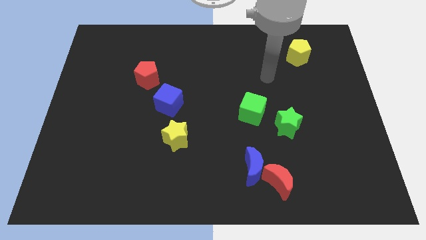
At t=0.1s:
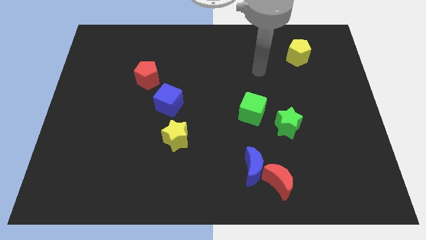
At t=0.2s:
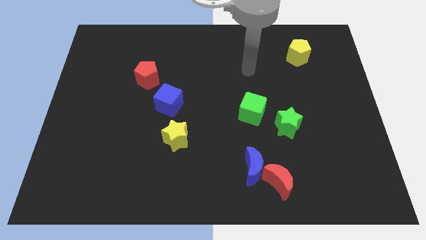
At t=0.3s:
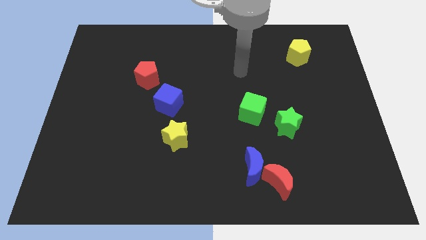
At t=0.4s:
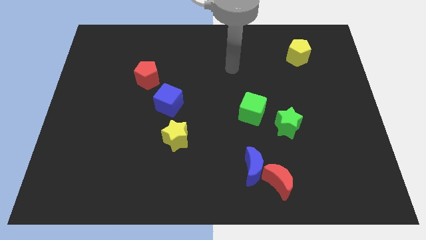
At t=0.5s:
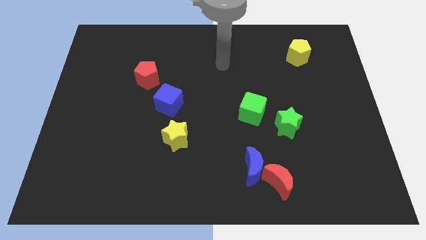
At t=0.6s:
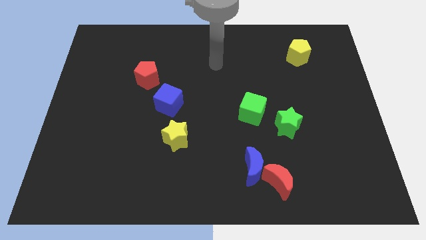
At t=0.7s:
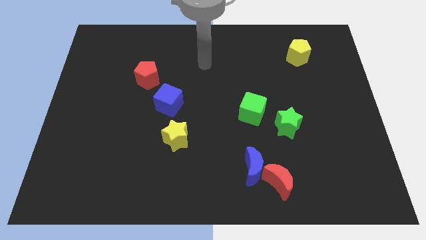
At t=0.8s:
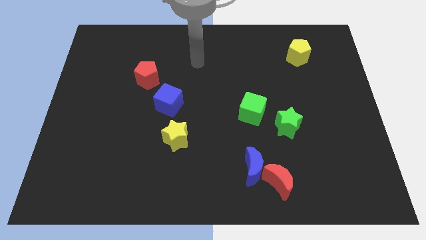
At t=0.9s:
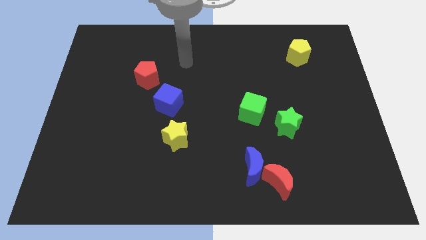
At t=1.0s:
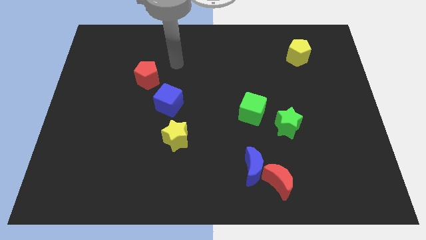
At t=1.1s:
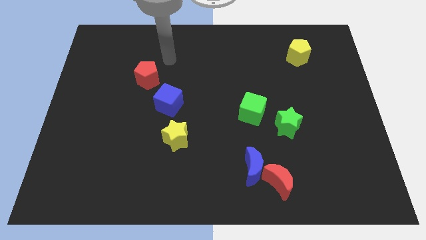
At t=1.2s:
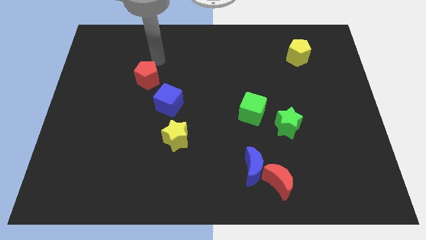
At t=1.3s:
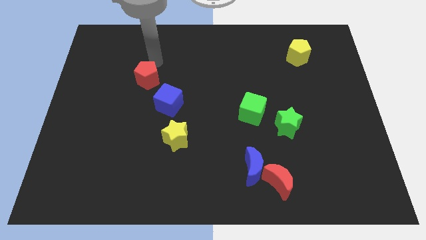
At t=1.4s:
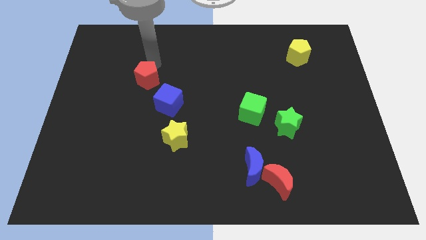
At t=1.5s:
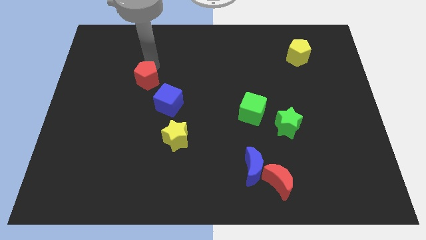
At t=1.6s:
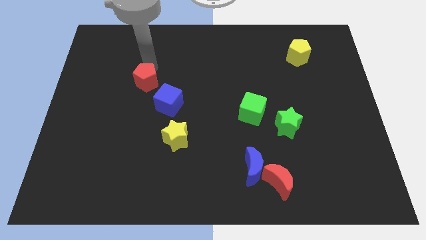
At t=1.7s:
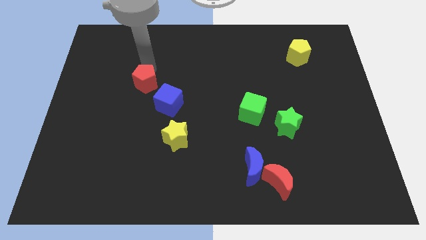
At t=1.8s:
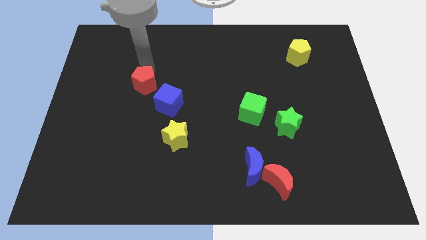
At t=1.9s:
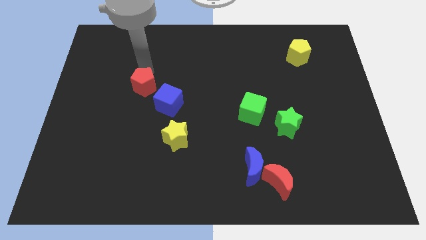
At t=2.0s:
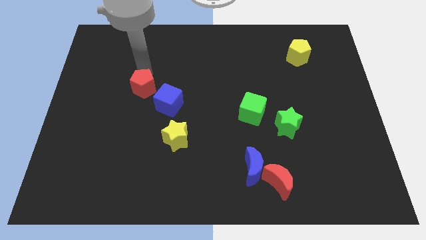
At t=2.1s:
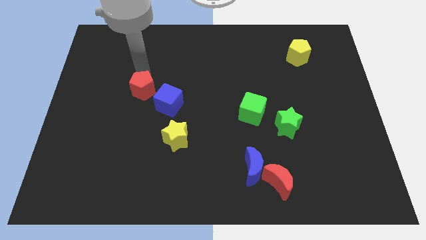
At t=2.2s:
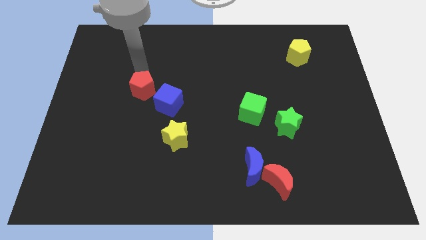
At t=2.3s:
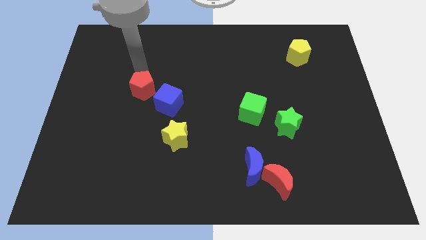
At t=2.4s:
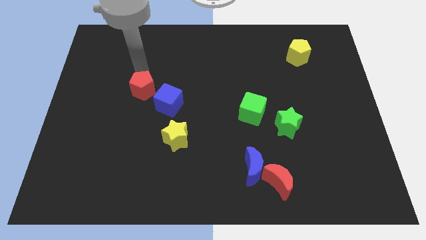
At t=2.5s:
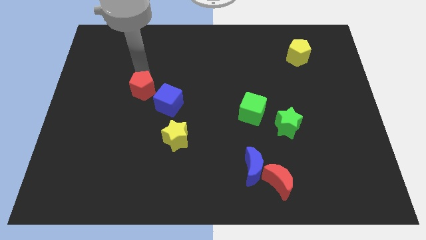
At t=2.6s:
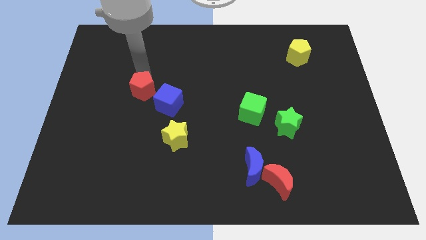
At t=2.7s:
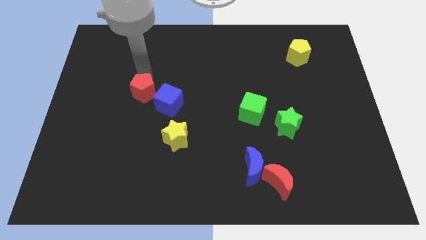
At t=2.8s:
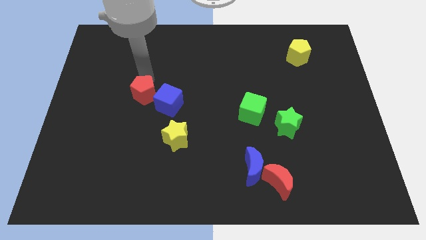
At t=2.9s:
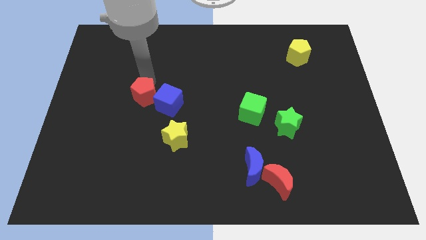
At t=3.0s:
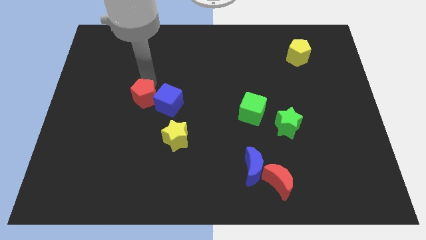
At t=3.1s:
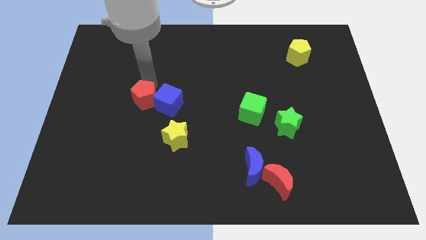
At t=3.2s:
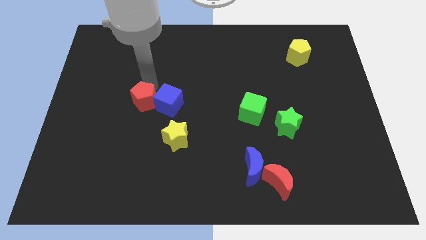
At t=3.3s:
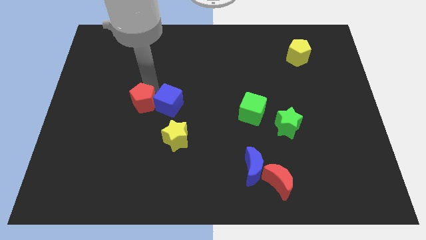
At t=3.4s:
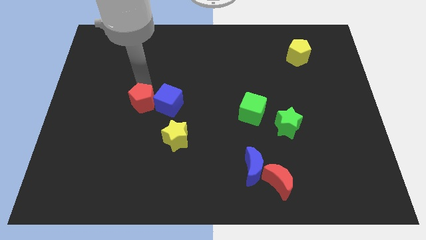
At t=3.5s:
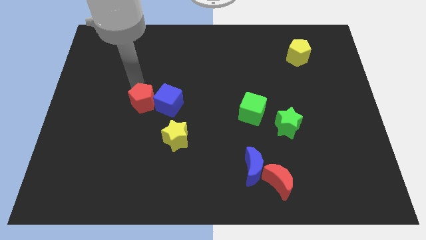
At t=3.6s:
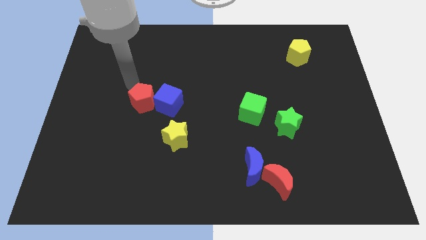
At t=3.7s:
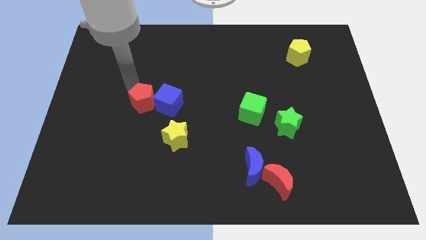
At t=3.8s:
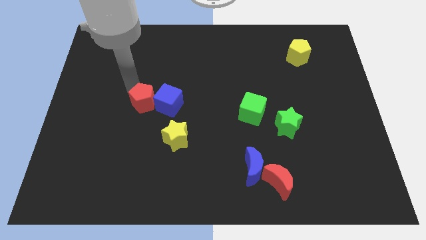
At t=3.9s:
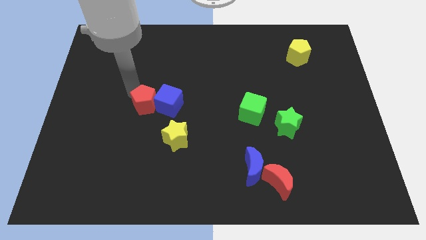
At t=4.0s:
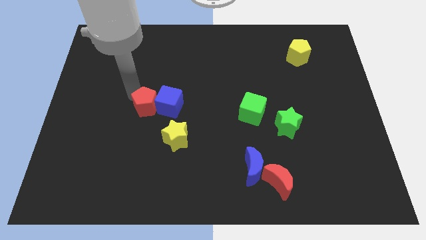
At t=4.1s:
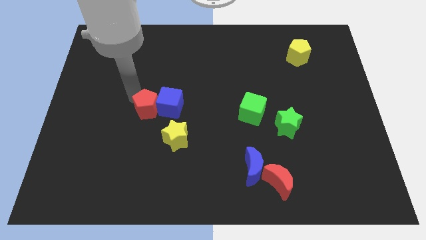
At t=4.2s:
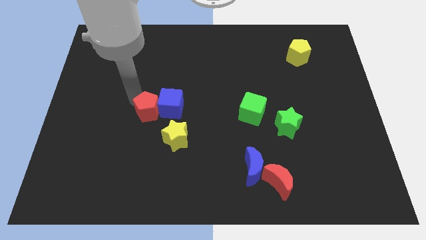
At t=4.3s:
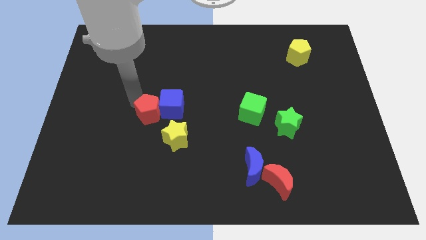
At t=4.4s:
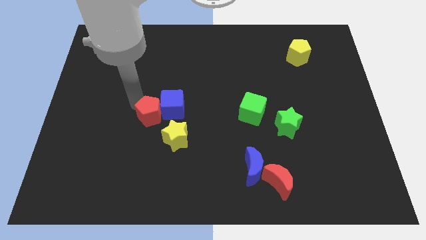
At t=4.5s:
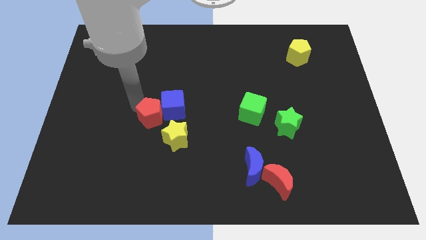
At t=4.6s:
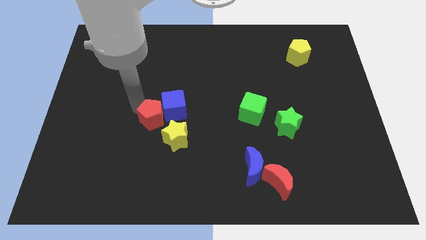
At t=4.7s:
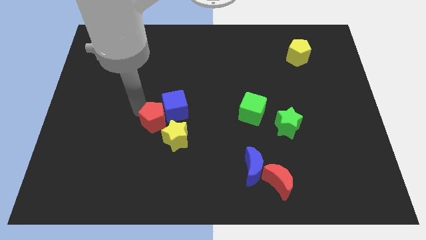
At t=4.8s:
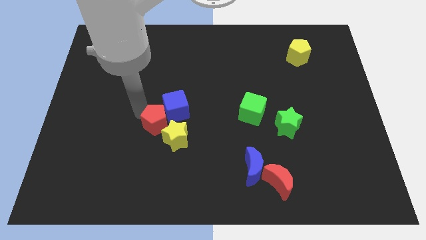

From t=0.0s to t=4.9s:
push the red pentagon next to the yellow star

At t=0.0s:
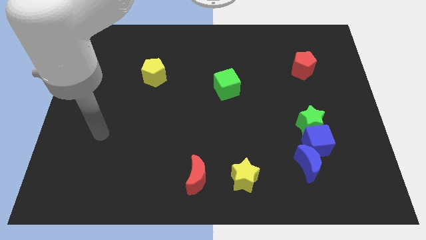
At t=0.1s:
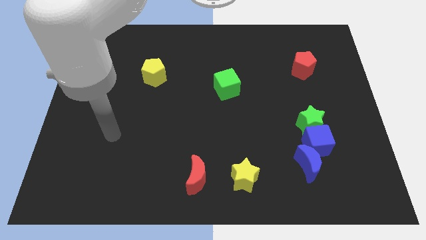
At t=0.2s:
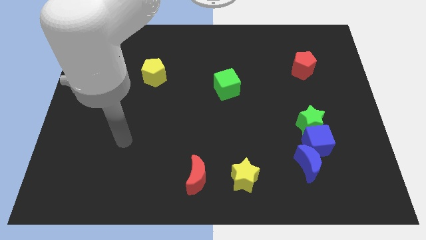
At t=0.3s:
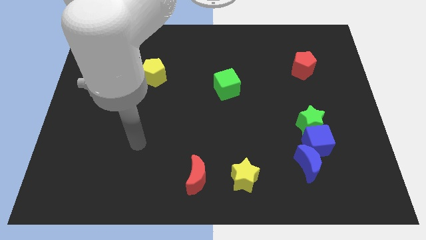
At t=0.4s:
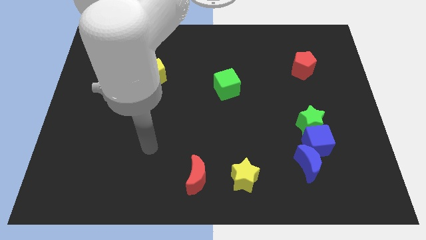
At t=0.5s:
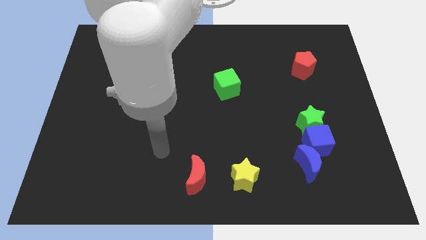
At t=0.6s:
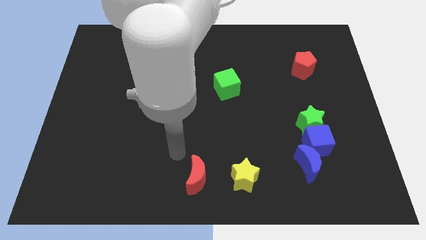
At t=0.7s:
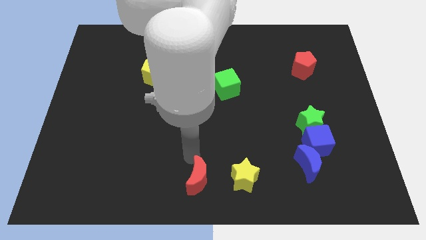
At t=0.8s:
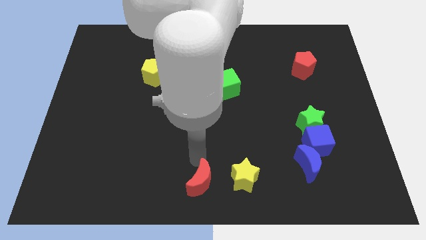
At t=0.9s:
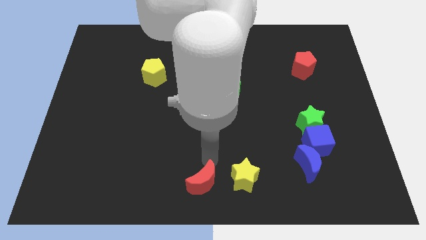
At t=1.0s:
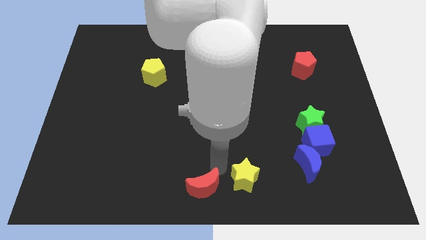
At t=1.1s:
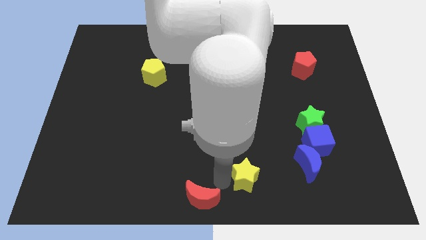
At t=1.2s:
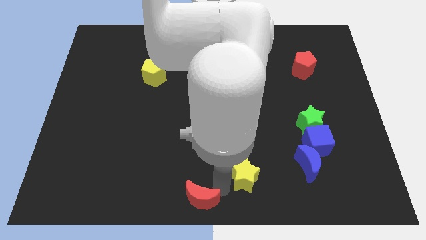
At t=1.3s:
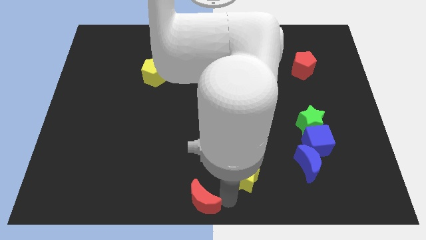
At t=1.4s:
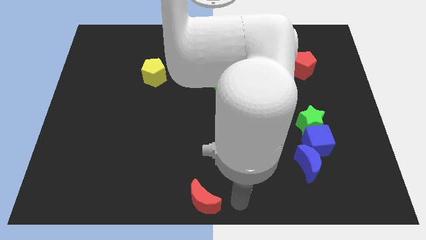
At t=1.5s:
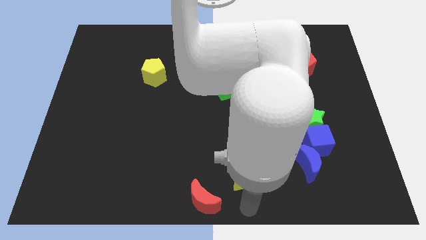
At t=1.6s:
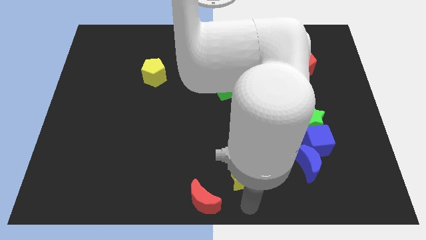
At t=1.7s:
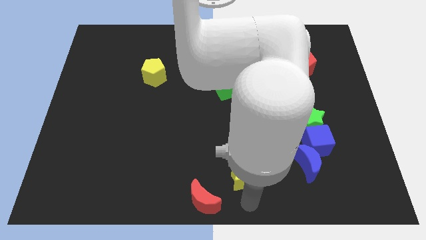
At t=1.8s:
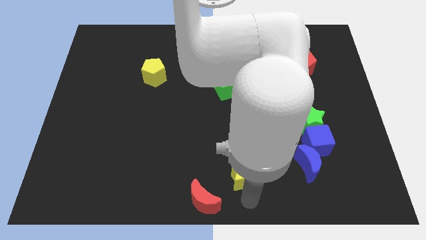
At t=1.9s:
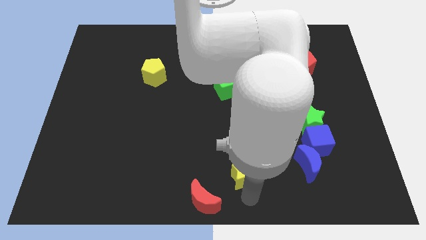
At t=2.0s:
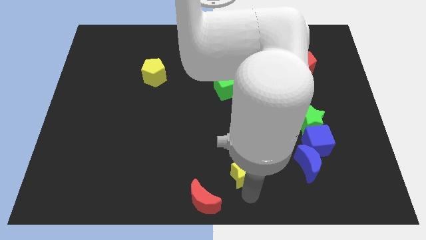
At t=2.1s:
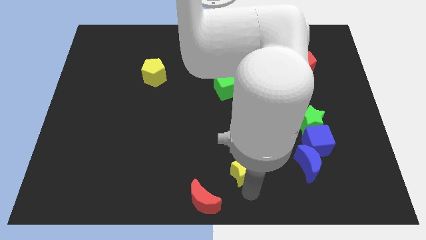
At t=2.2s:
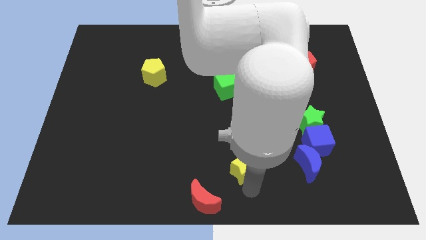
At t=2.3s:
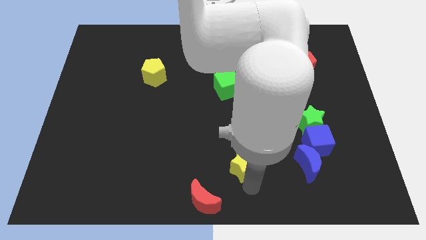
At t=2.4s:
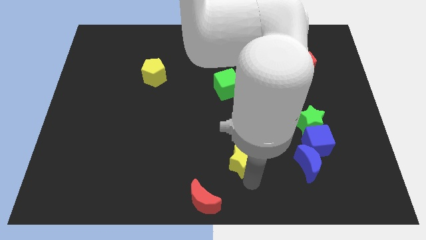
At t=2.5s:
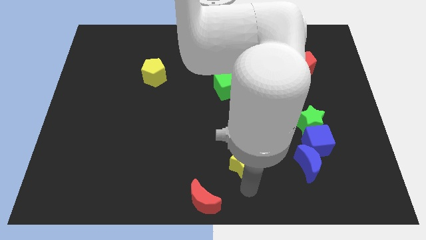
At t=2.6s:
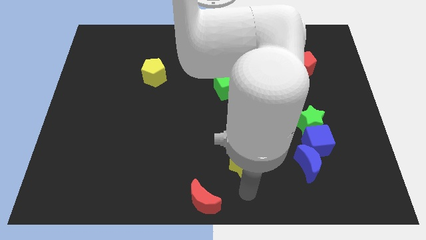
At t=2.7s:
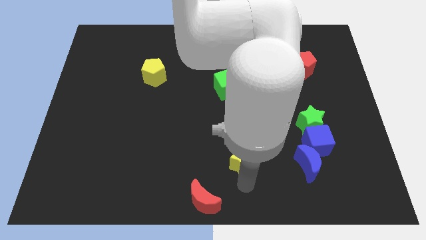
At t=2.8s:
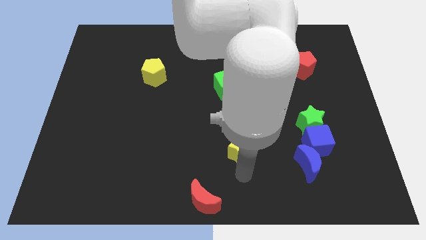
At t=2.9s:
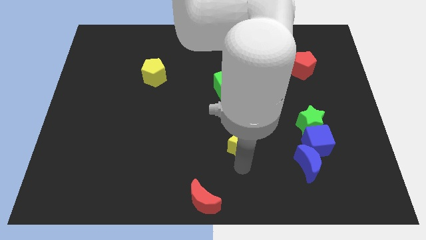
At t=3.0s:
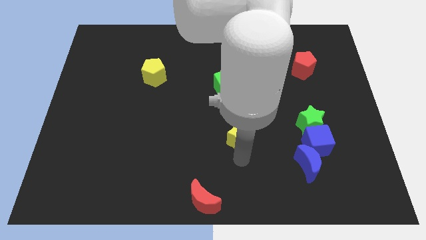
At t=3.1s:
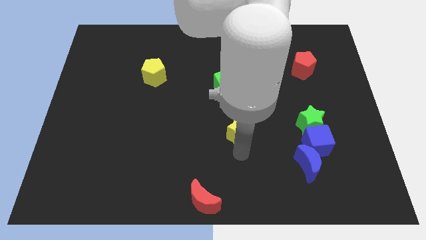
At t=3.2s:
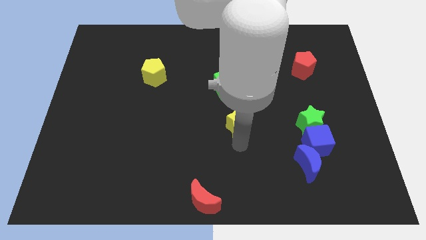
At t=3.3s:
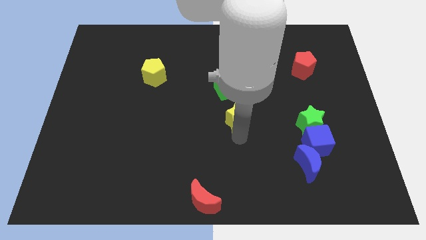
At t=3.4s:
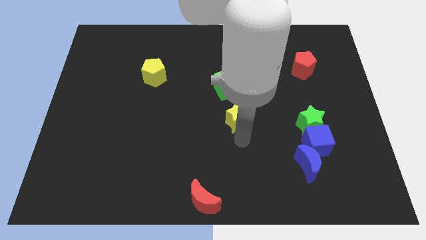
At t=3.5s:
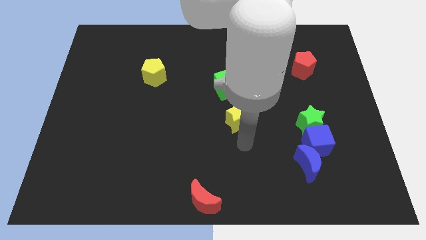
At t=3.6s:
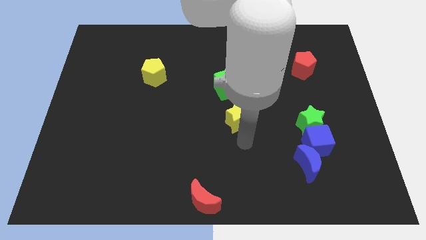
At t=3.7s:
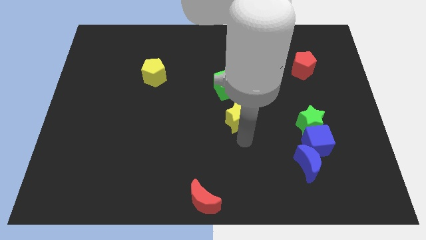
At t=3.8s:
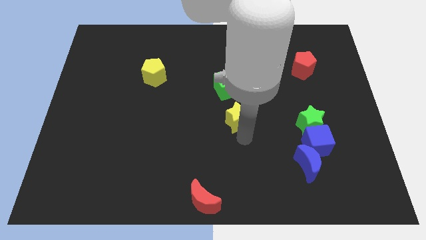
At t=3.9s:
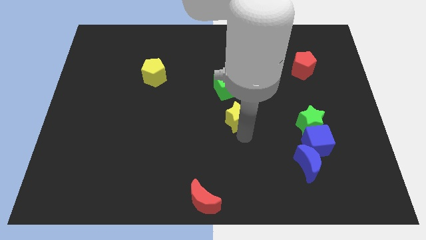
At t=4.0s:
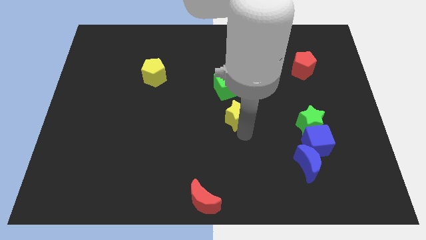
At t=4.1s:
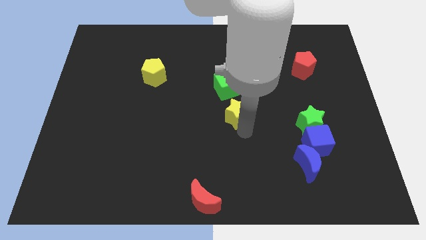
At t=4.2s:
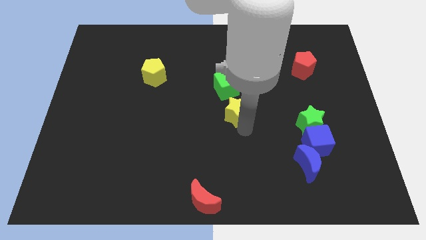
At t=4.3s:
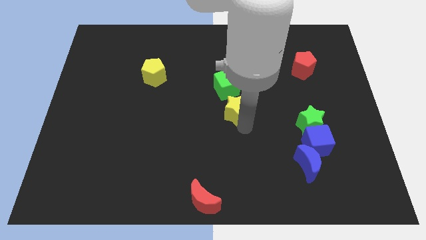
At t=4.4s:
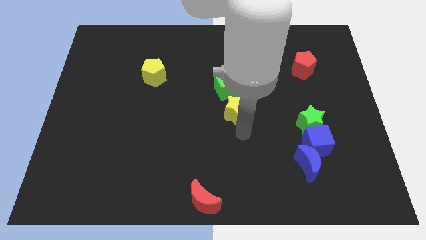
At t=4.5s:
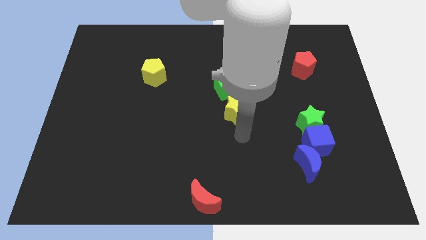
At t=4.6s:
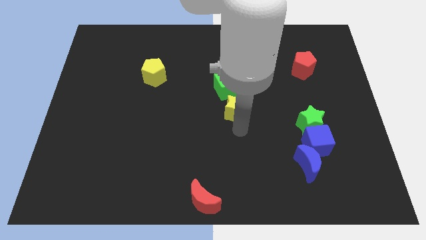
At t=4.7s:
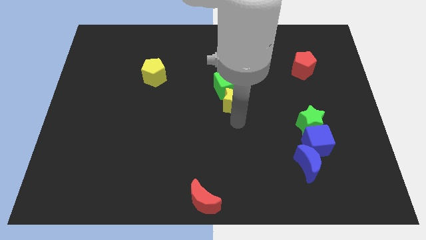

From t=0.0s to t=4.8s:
put the yellow star close to the green cube
